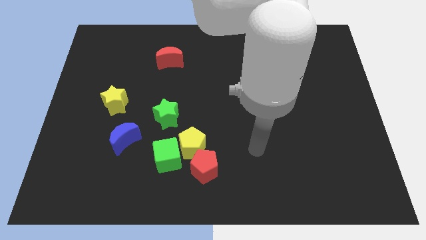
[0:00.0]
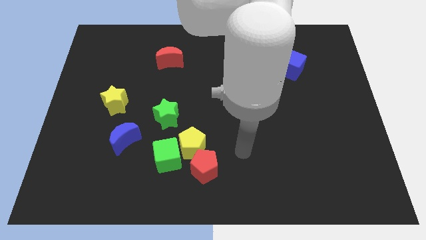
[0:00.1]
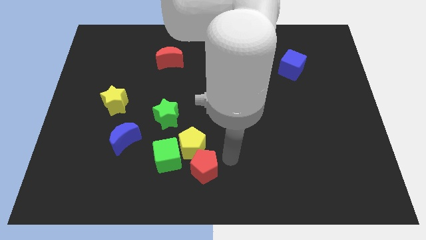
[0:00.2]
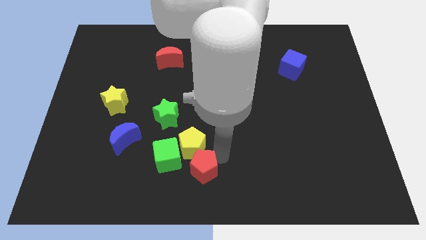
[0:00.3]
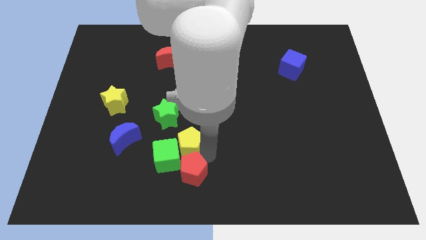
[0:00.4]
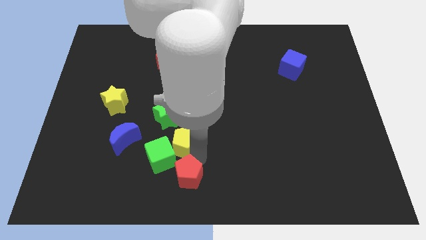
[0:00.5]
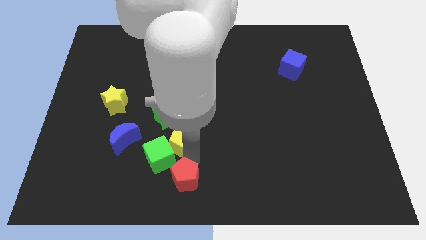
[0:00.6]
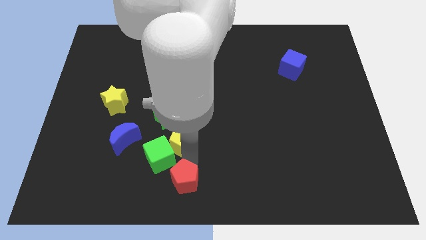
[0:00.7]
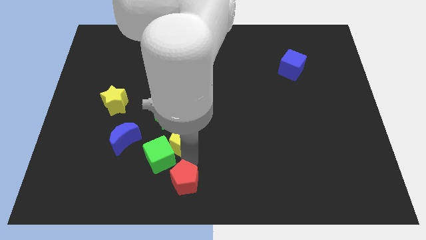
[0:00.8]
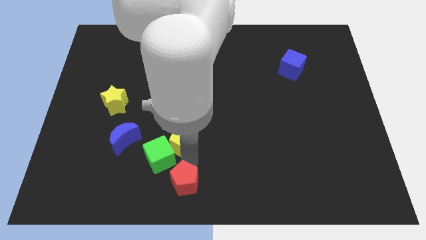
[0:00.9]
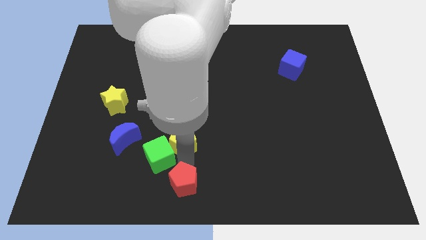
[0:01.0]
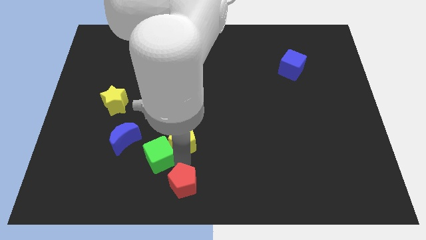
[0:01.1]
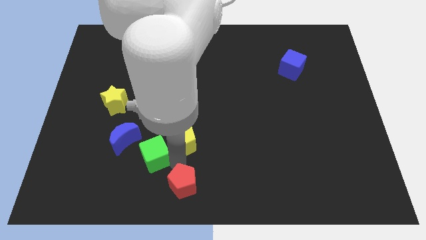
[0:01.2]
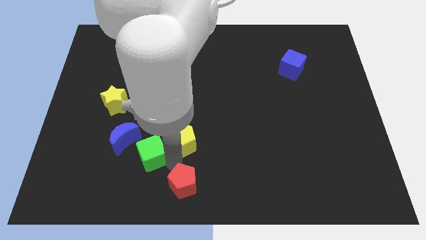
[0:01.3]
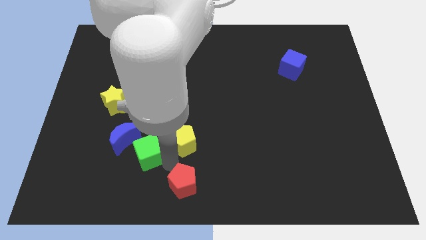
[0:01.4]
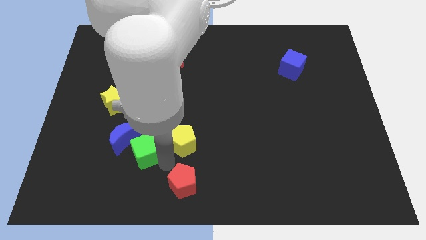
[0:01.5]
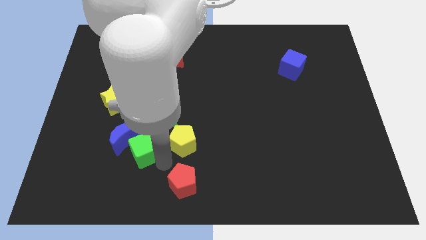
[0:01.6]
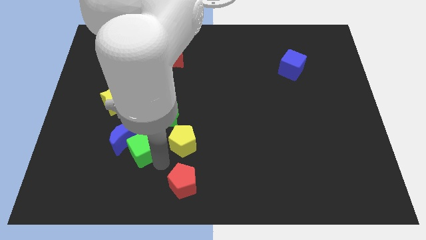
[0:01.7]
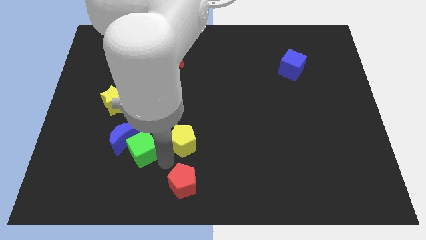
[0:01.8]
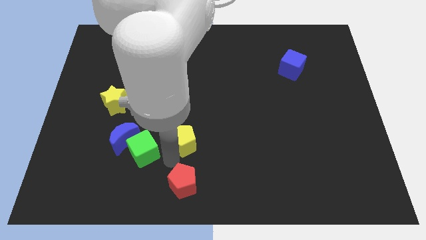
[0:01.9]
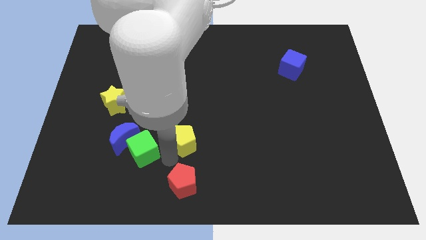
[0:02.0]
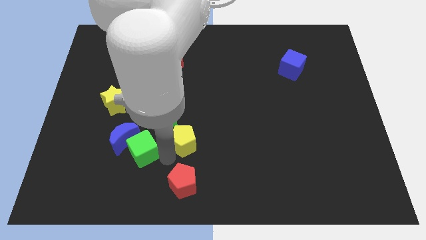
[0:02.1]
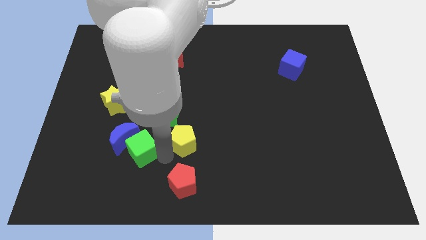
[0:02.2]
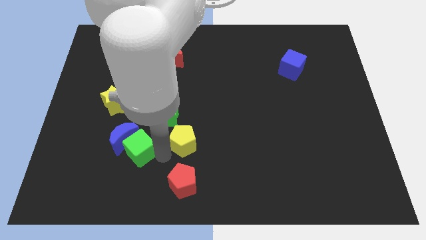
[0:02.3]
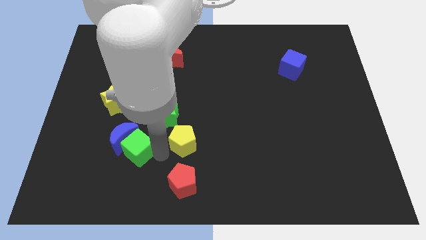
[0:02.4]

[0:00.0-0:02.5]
move the green cube away from the yellow pentagon and red pentagon

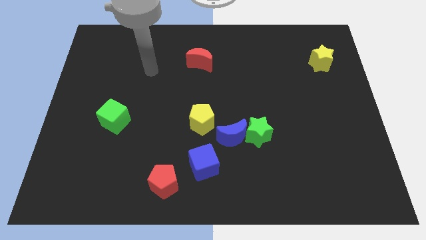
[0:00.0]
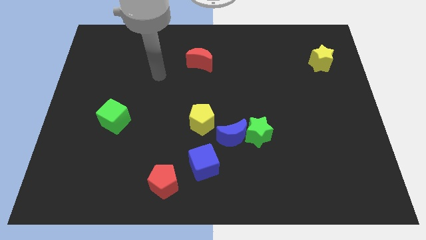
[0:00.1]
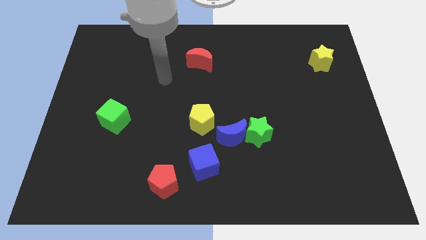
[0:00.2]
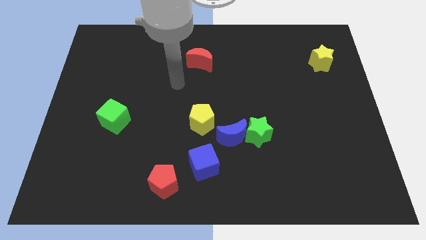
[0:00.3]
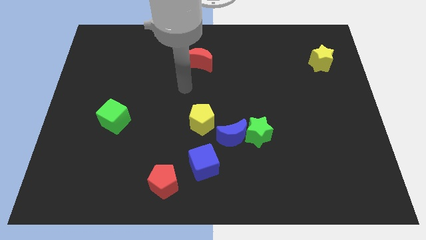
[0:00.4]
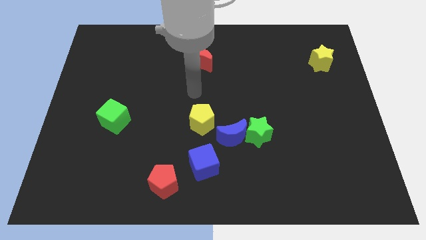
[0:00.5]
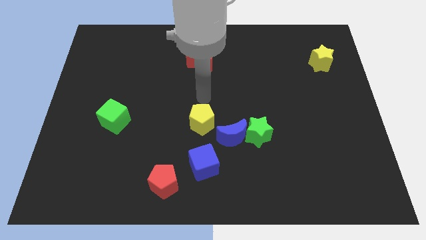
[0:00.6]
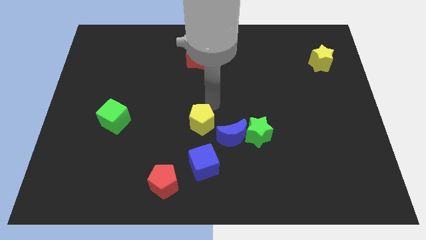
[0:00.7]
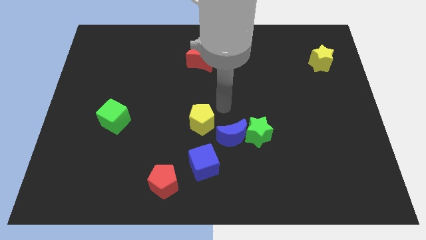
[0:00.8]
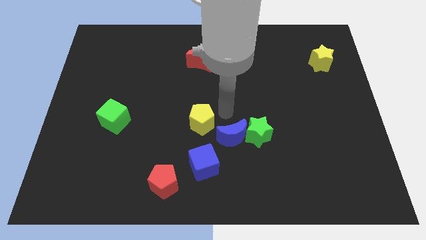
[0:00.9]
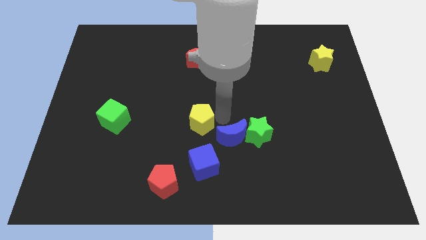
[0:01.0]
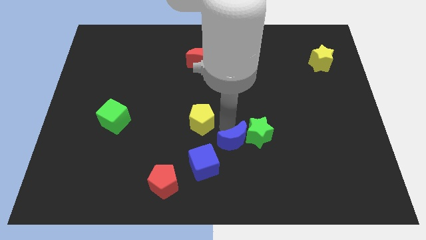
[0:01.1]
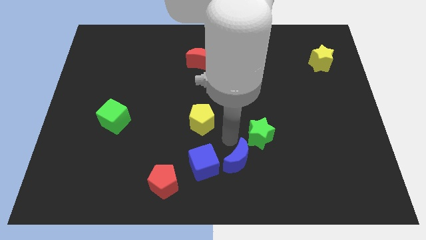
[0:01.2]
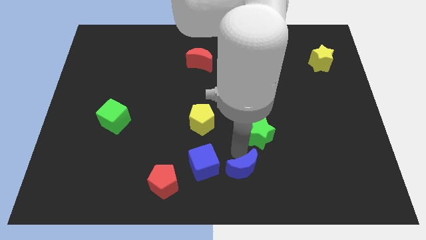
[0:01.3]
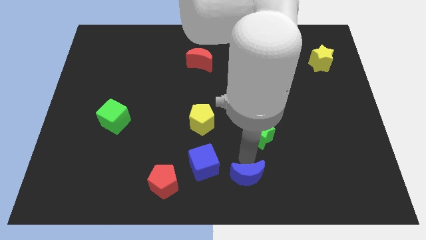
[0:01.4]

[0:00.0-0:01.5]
separate the green star from the blue moon

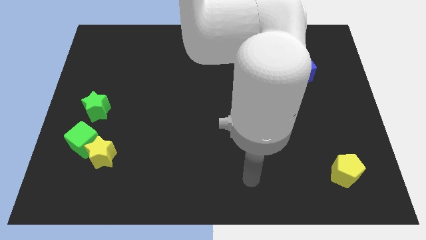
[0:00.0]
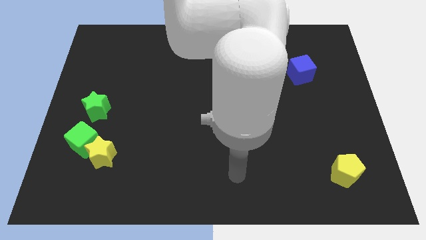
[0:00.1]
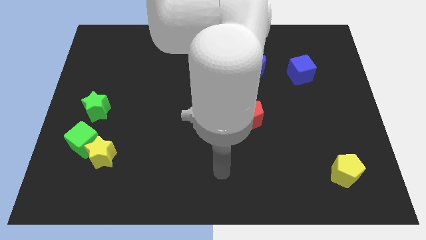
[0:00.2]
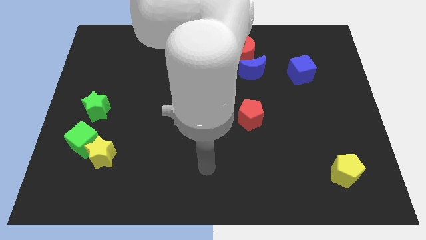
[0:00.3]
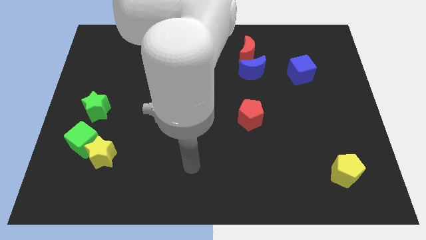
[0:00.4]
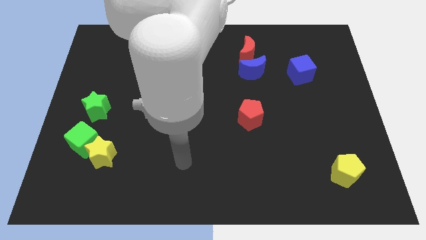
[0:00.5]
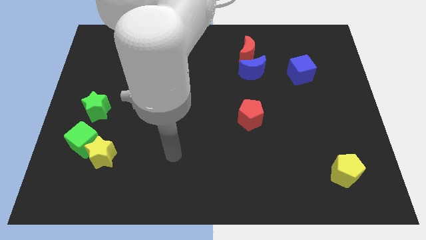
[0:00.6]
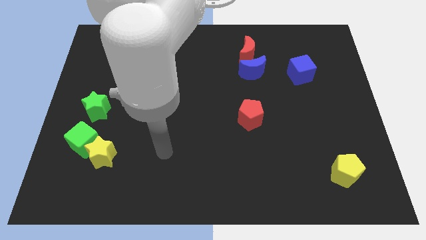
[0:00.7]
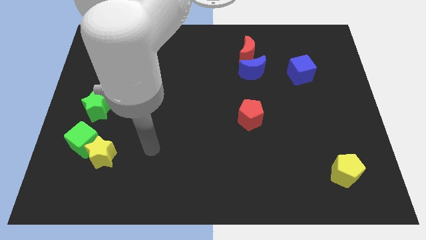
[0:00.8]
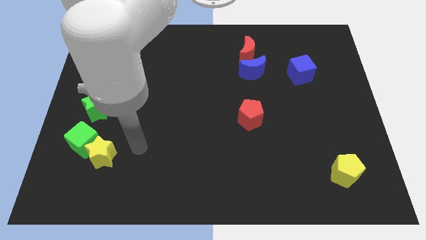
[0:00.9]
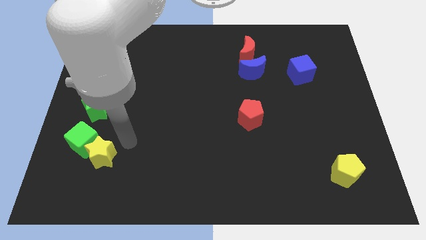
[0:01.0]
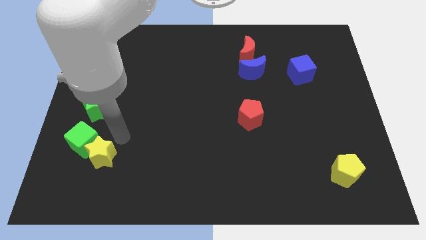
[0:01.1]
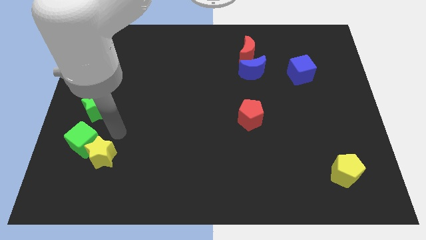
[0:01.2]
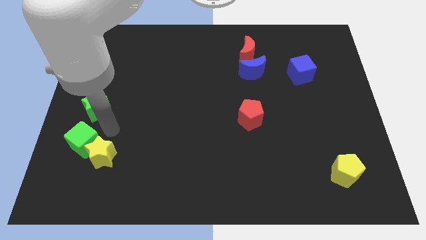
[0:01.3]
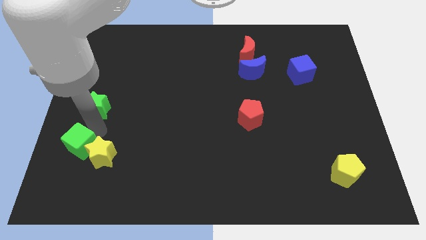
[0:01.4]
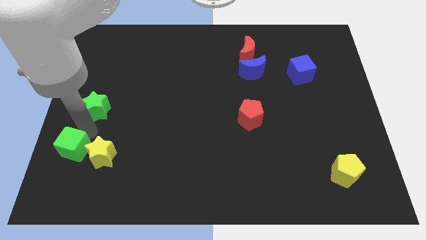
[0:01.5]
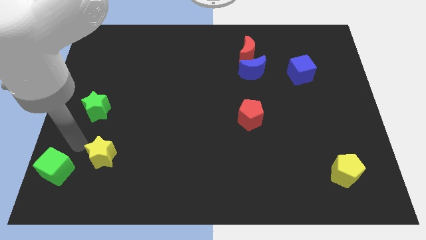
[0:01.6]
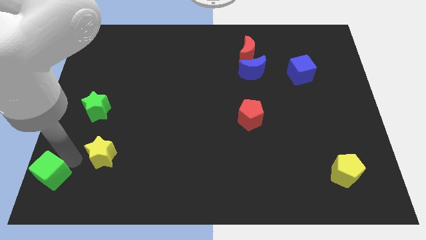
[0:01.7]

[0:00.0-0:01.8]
pull the yellow star apart from the green cube

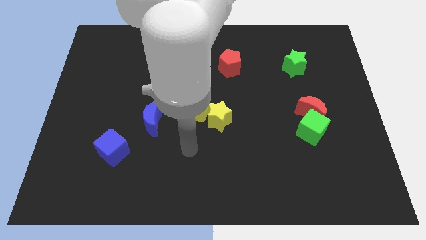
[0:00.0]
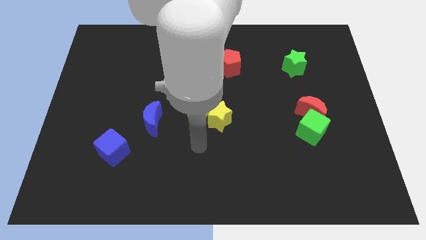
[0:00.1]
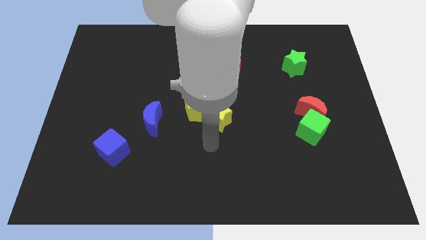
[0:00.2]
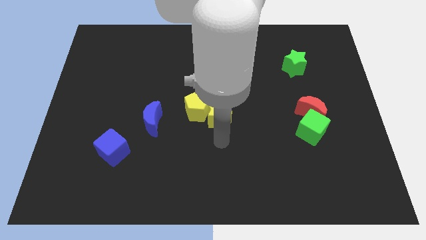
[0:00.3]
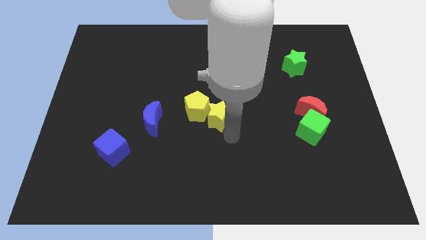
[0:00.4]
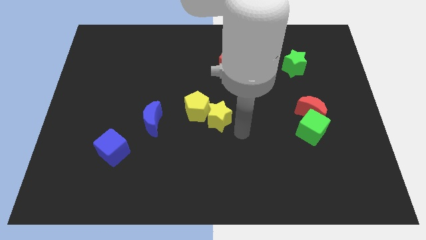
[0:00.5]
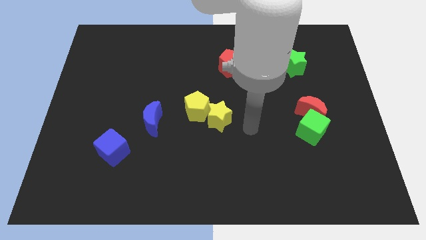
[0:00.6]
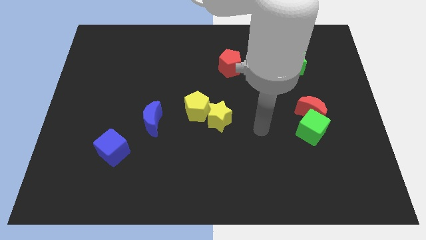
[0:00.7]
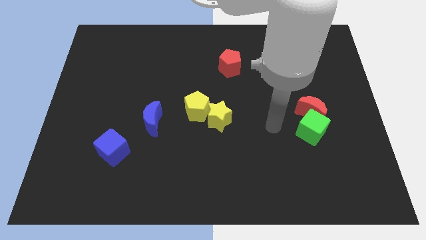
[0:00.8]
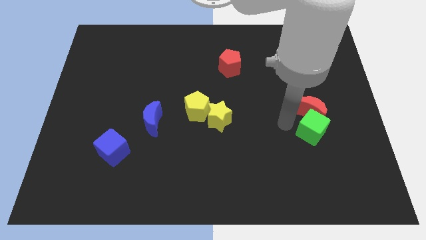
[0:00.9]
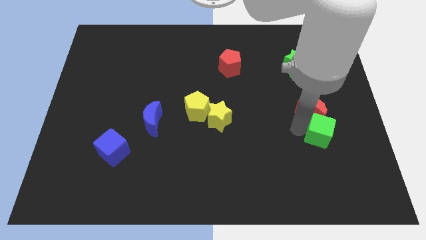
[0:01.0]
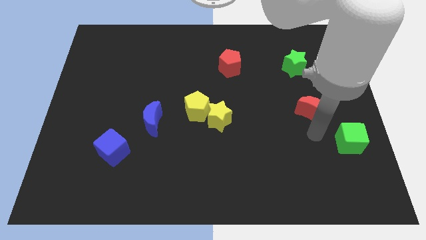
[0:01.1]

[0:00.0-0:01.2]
separate the red moon from the green cube

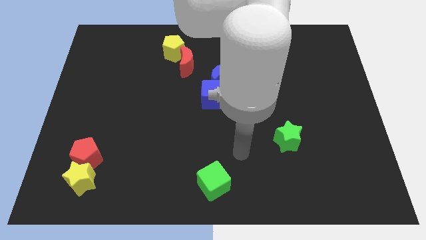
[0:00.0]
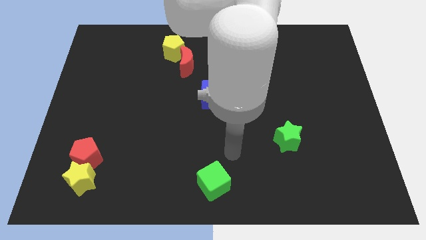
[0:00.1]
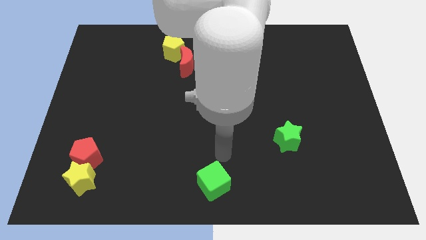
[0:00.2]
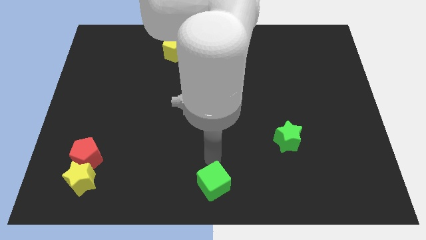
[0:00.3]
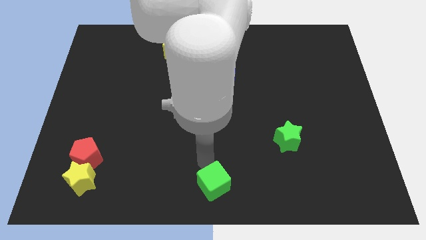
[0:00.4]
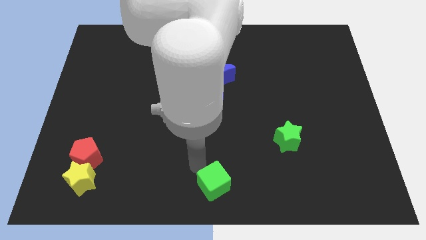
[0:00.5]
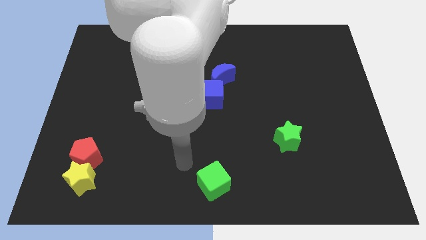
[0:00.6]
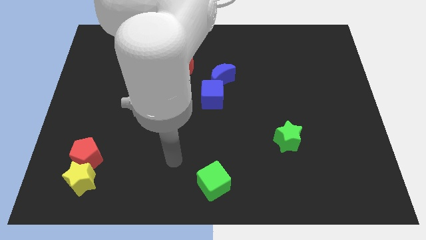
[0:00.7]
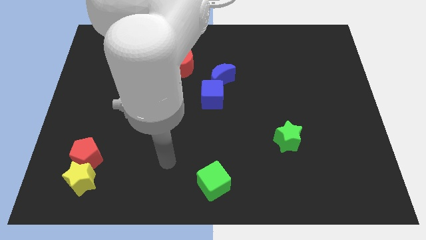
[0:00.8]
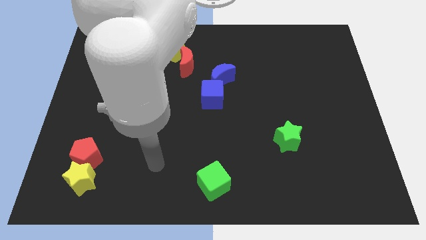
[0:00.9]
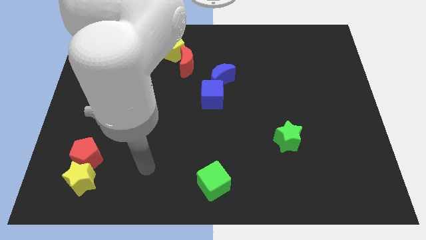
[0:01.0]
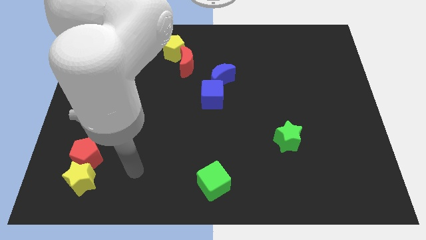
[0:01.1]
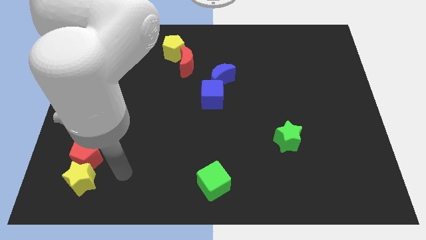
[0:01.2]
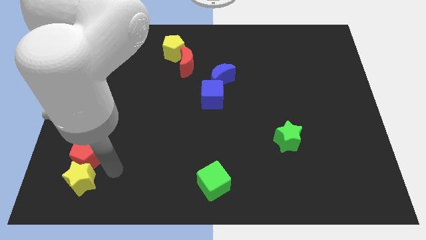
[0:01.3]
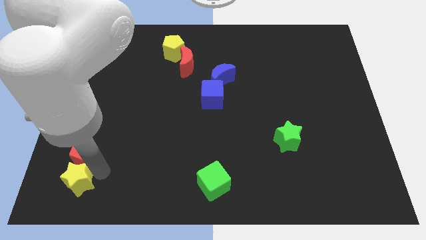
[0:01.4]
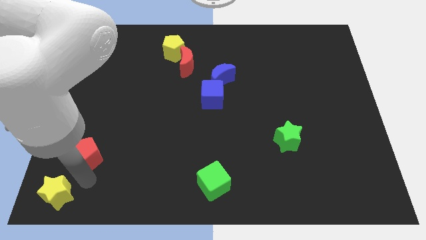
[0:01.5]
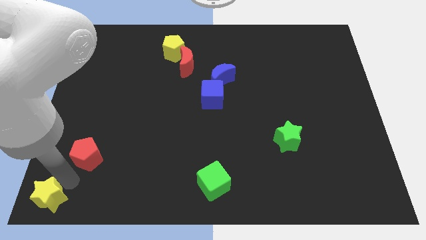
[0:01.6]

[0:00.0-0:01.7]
separate the red pentagon from the yellow star

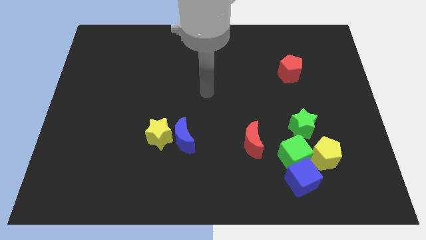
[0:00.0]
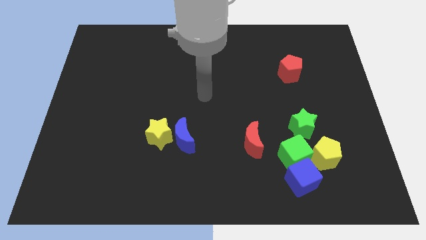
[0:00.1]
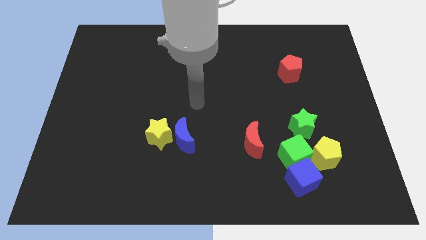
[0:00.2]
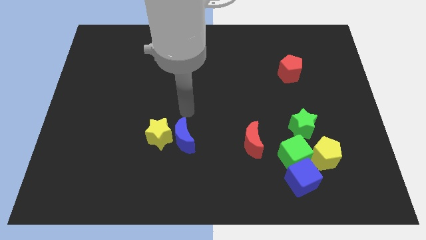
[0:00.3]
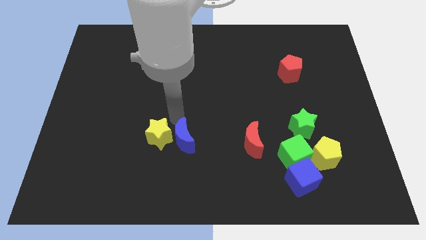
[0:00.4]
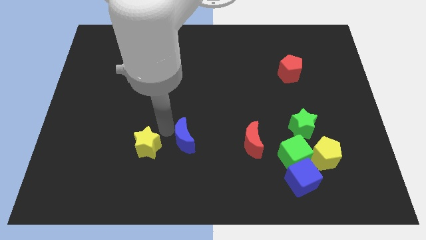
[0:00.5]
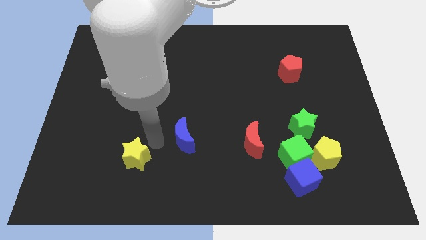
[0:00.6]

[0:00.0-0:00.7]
separate the blue moon from the yellow star
